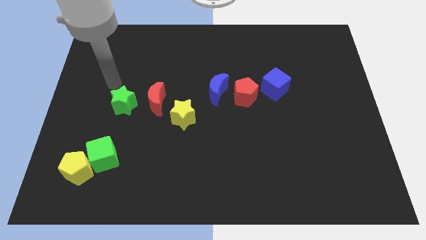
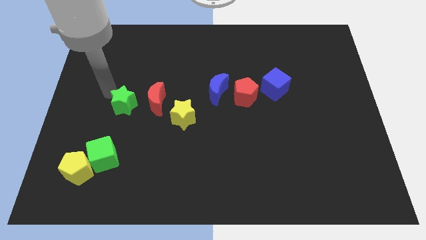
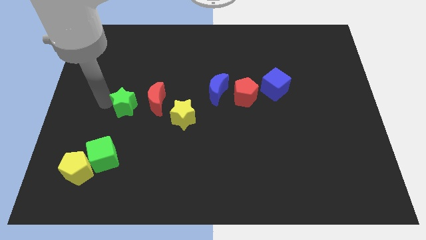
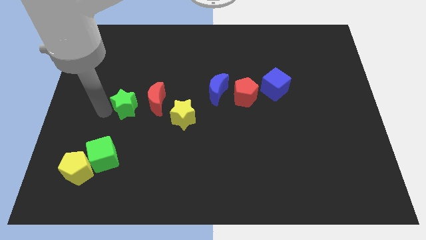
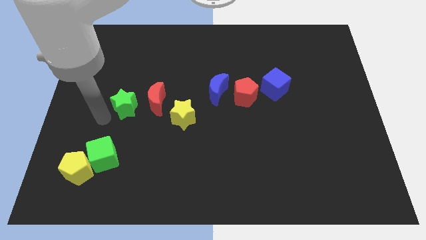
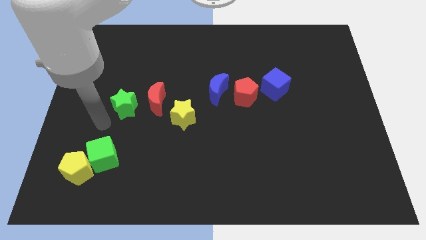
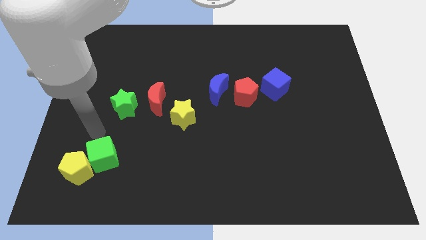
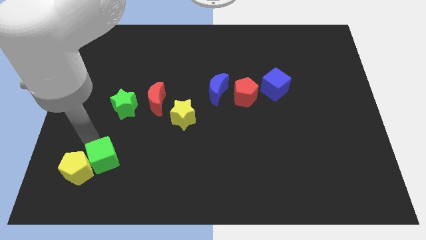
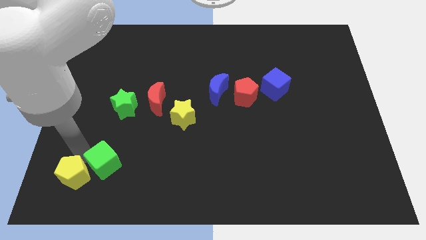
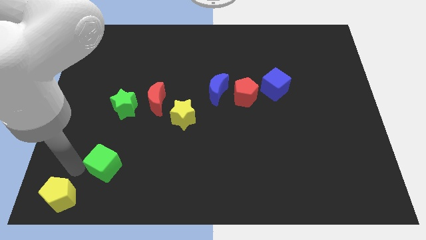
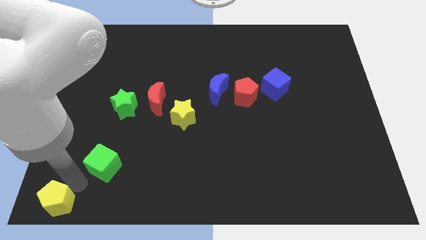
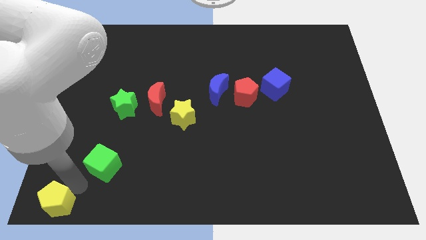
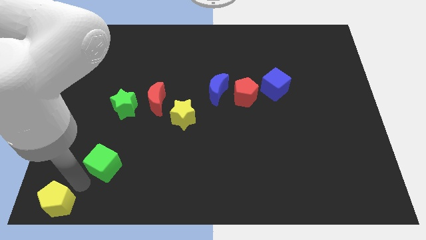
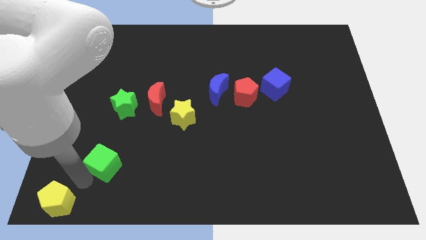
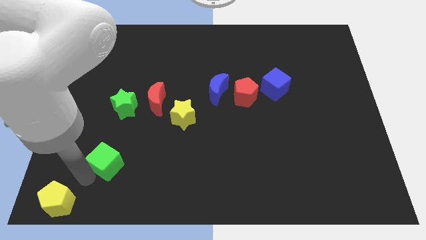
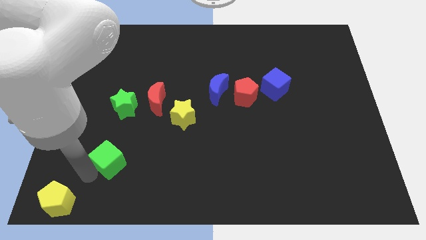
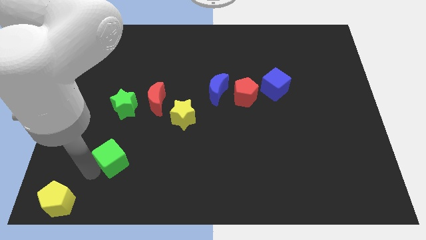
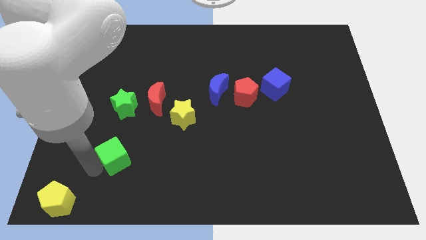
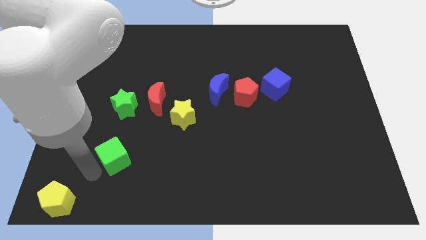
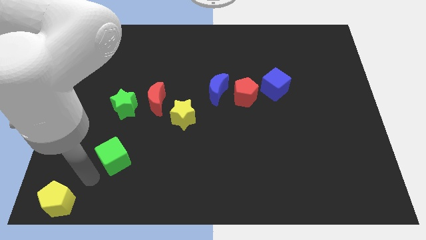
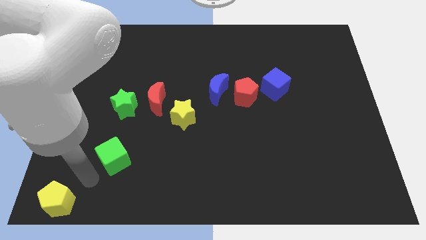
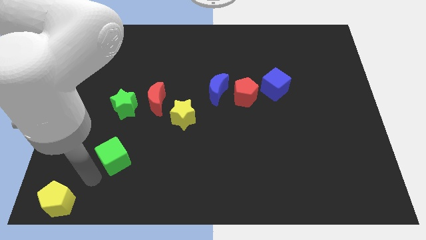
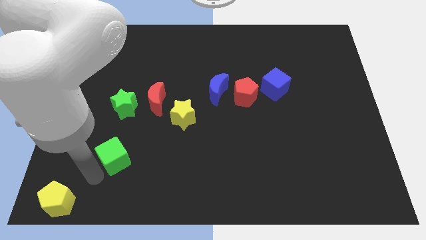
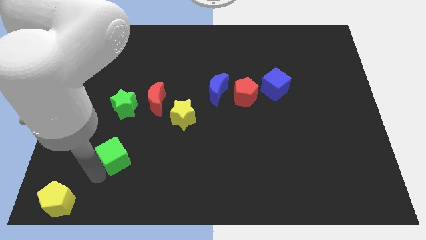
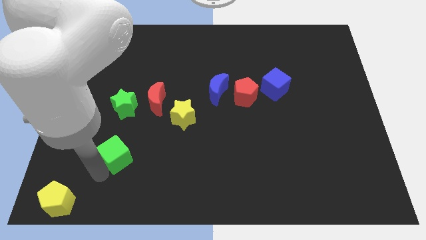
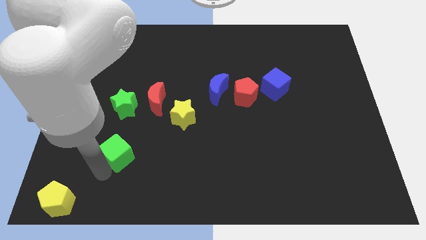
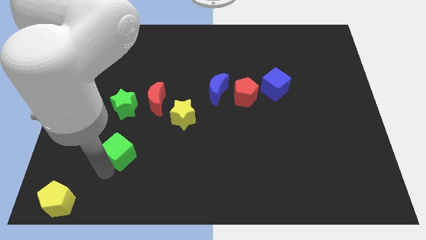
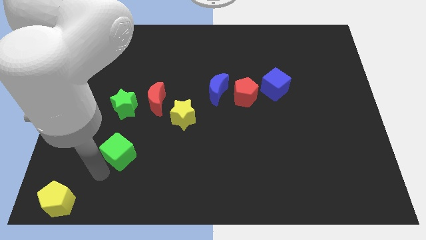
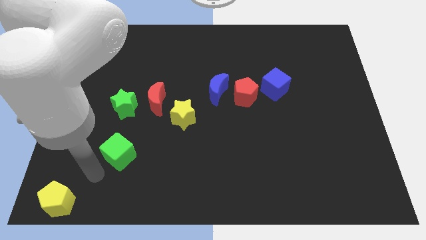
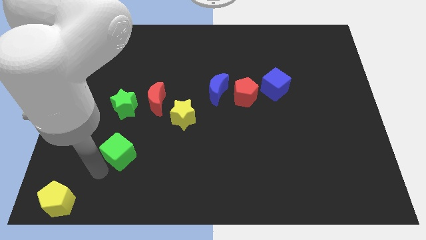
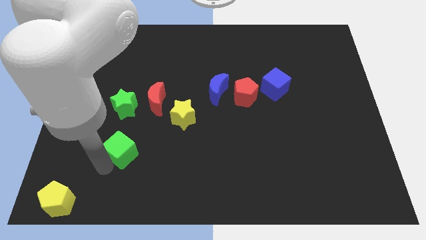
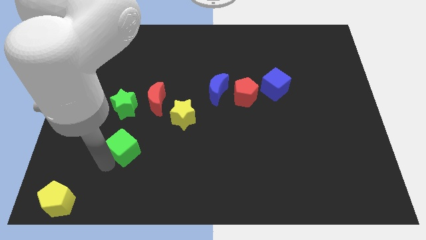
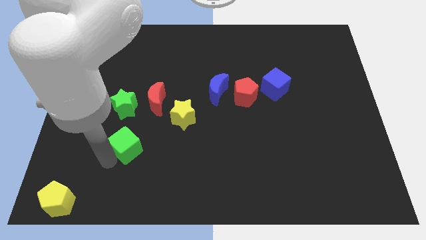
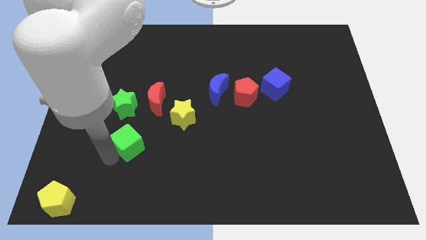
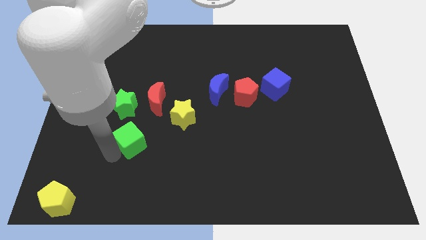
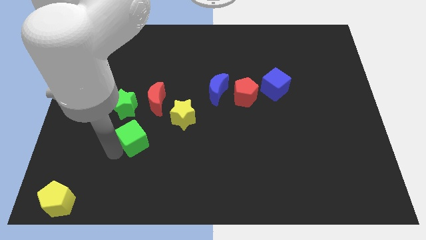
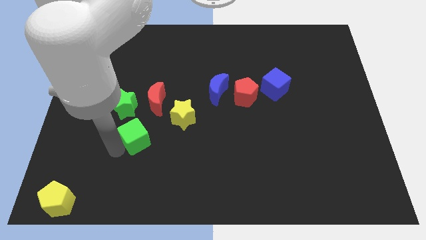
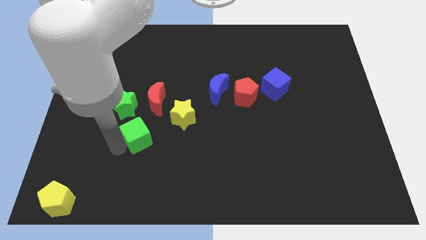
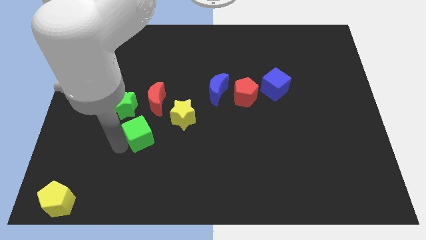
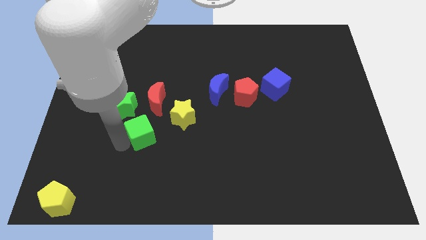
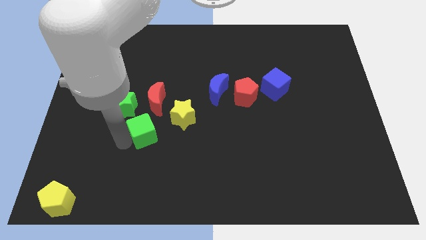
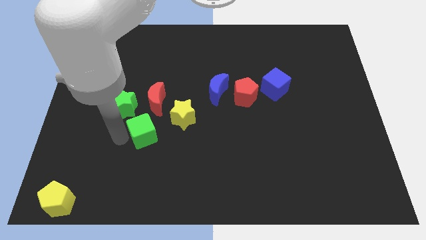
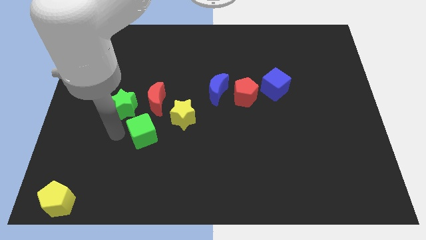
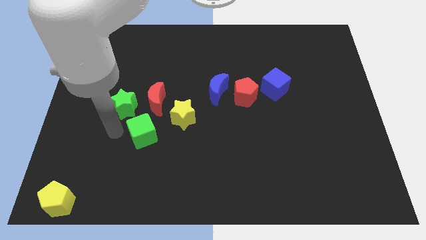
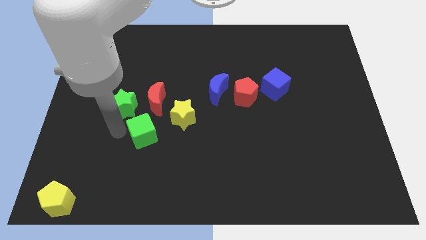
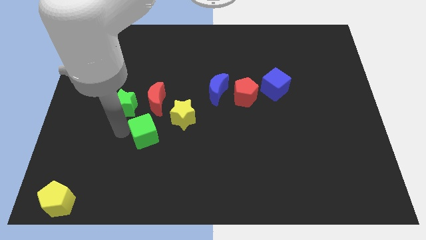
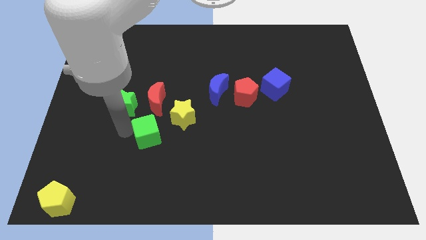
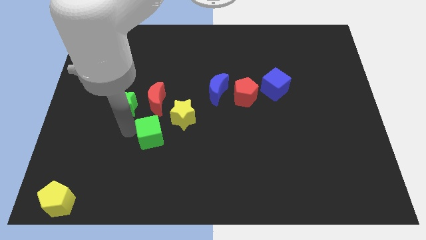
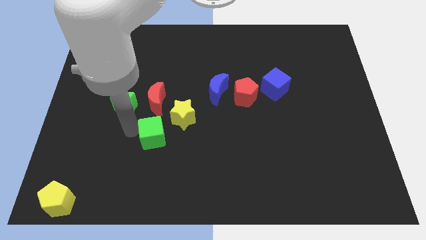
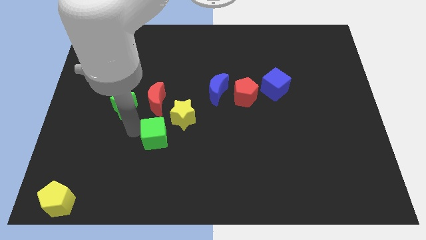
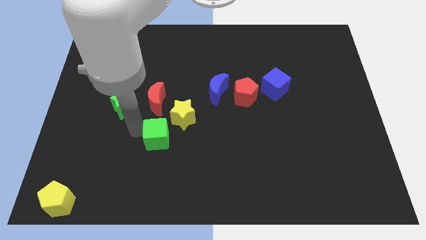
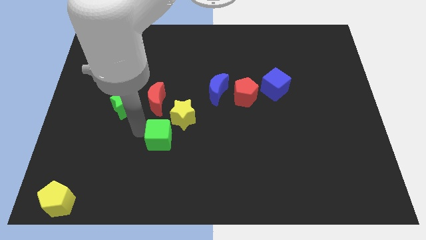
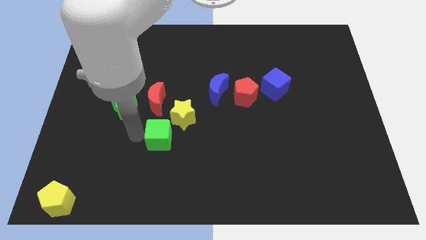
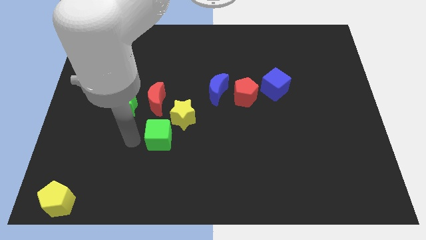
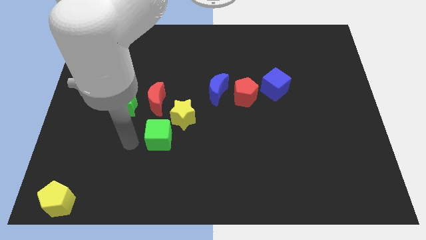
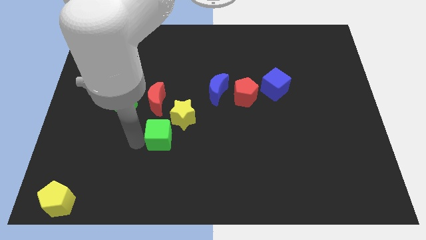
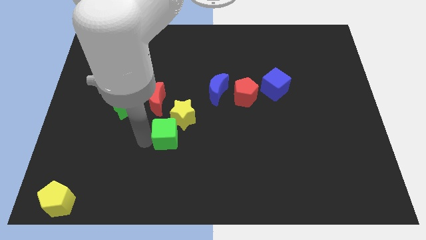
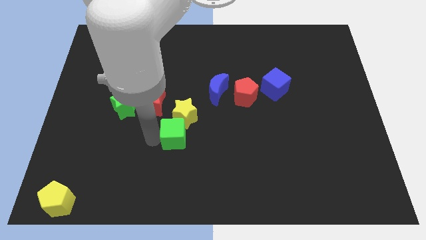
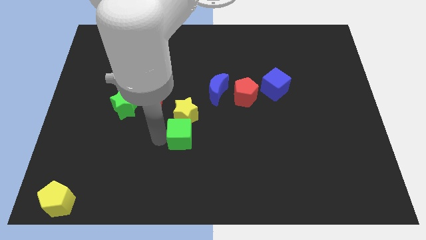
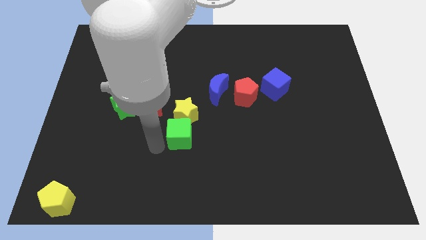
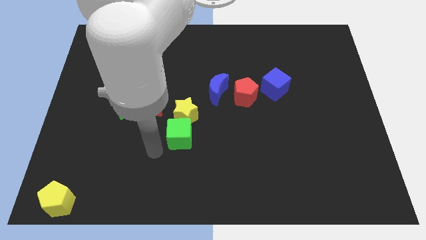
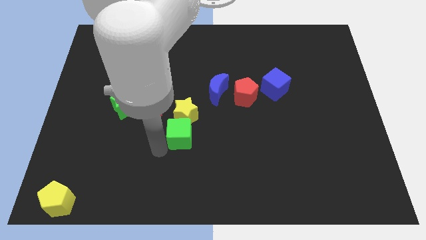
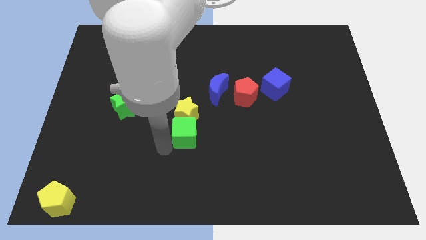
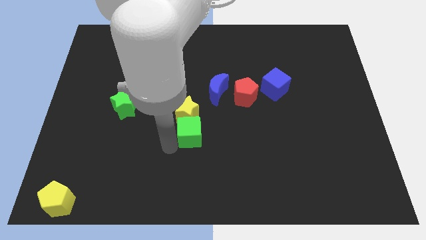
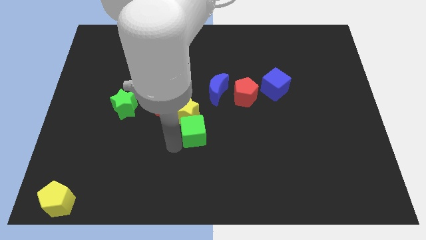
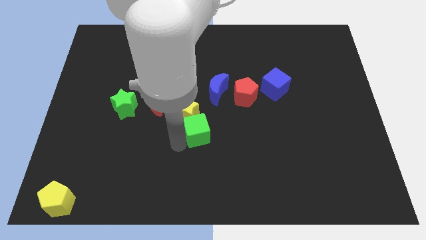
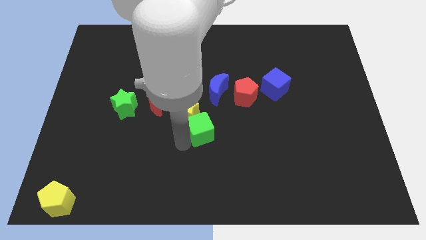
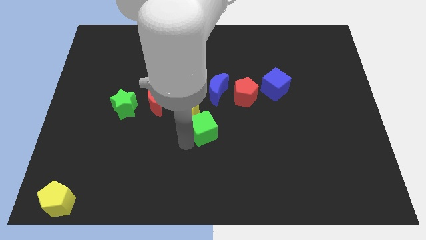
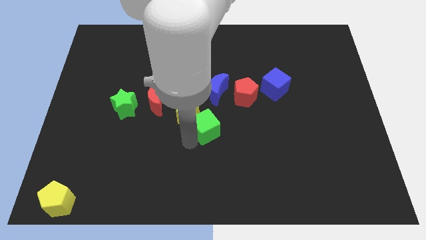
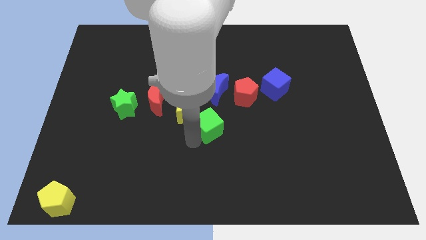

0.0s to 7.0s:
move the green cube diagonally down and to the left of the red pentagon

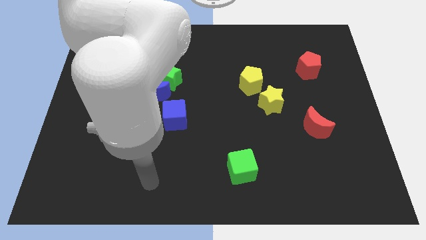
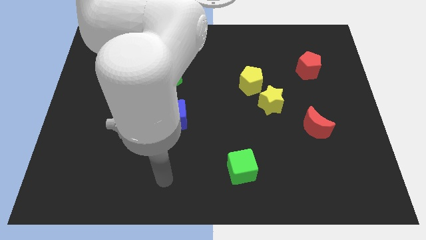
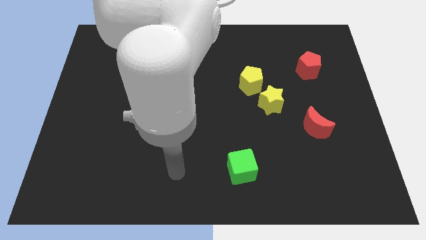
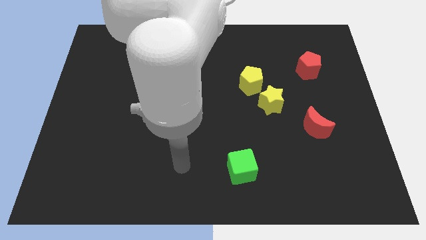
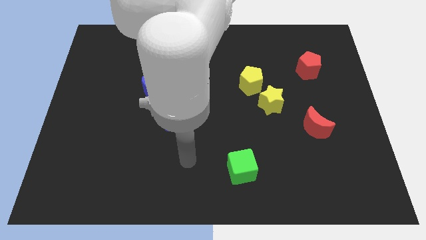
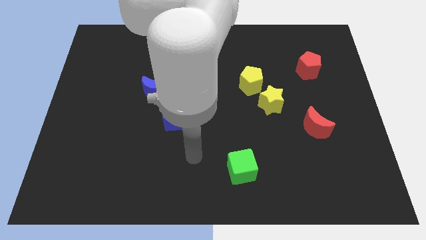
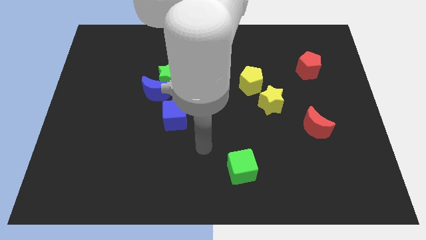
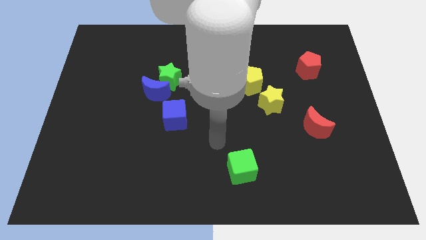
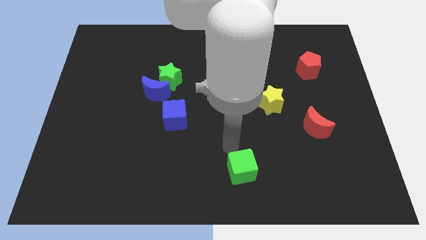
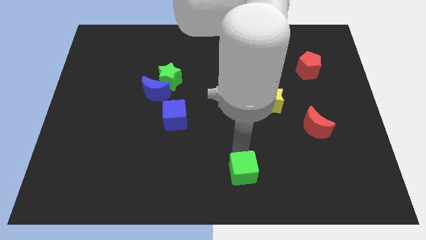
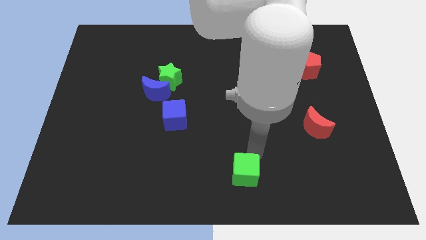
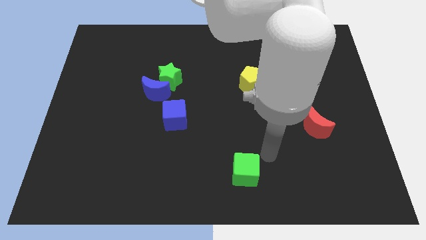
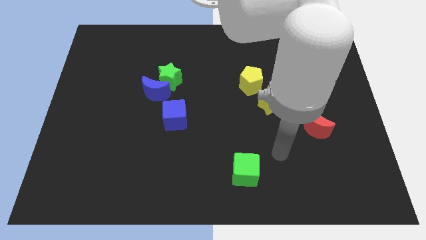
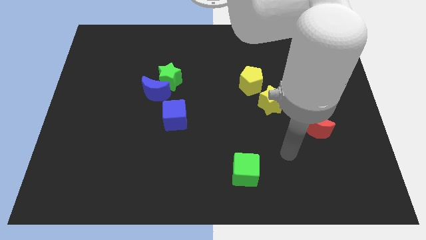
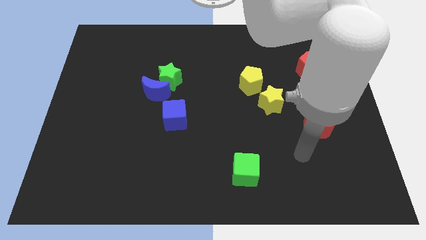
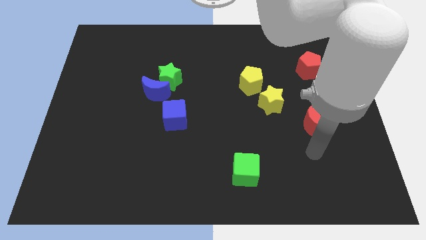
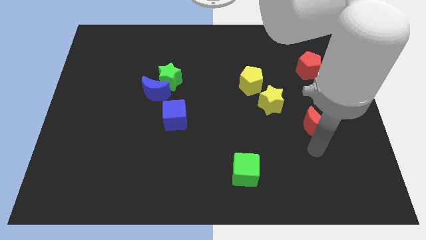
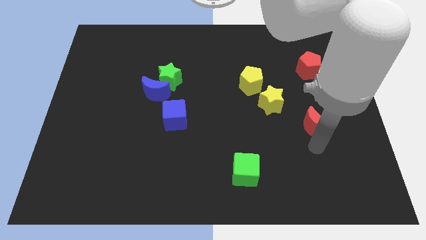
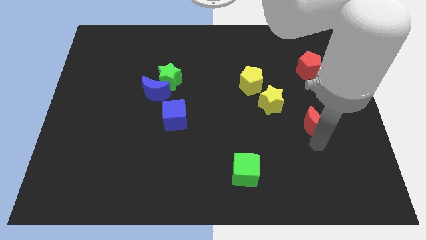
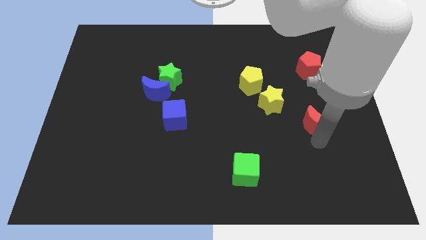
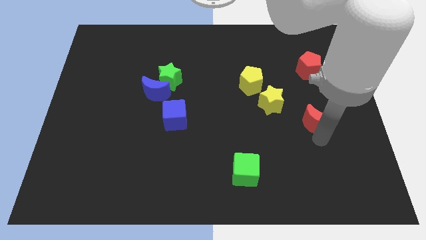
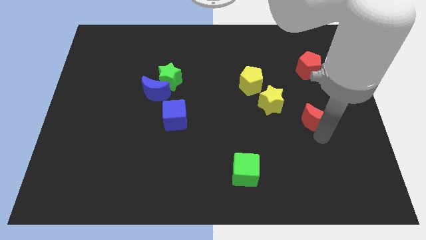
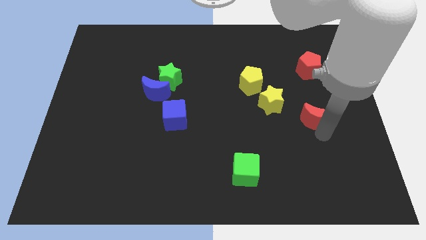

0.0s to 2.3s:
put the red moon right of the yellow star
